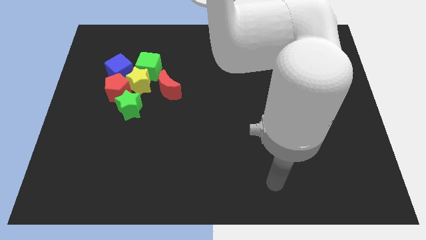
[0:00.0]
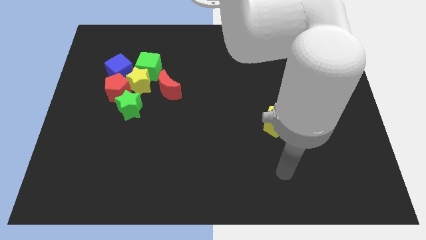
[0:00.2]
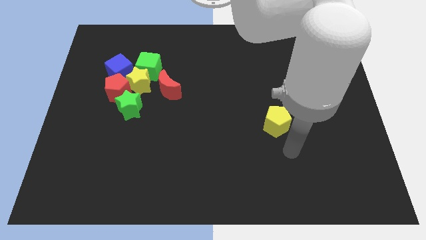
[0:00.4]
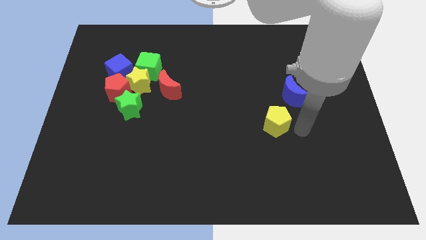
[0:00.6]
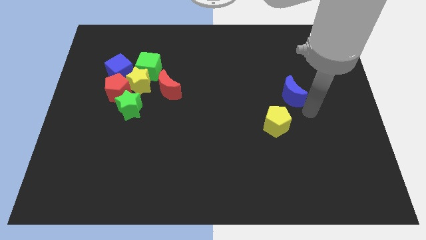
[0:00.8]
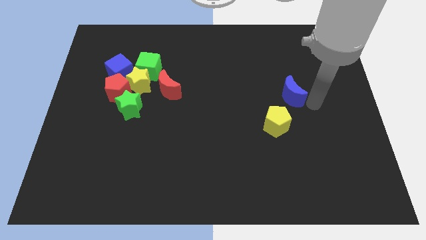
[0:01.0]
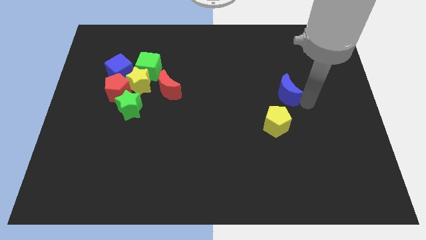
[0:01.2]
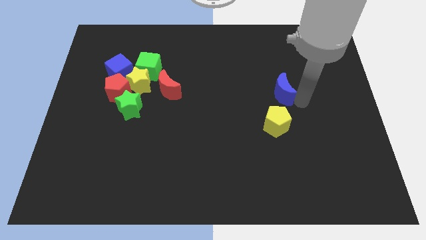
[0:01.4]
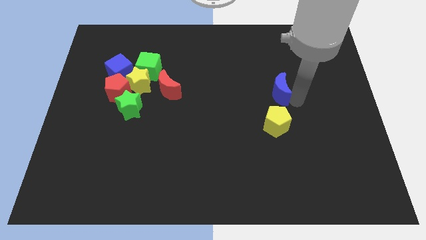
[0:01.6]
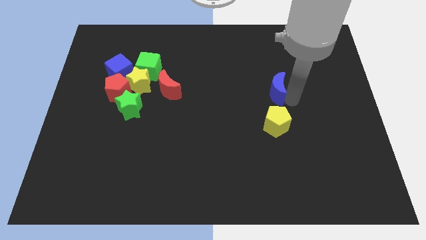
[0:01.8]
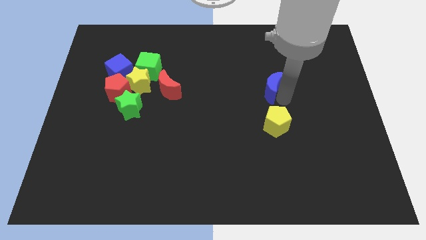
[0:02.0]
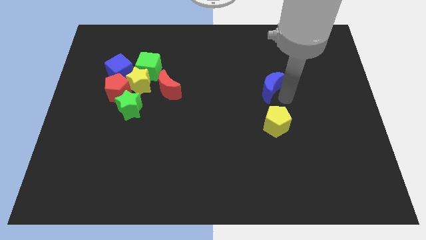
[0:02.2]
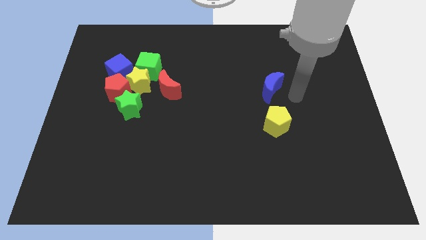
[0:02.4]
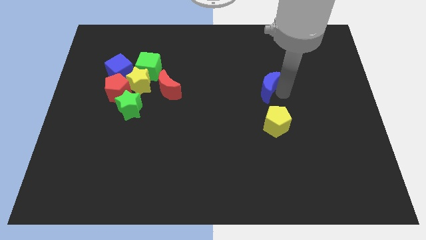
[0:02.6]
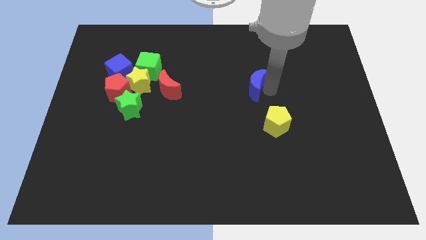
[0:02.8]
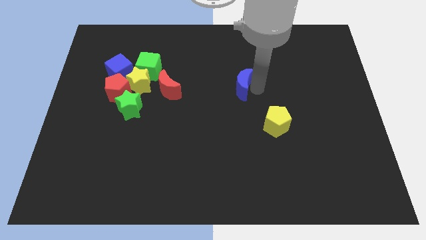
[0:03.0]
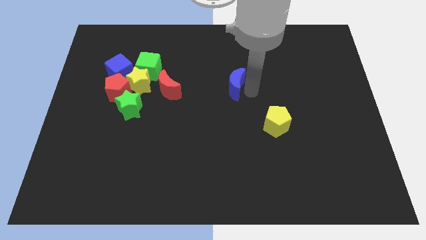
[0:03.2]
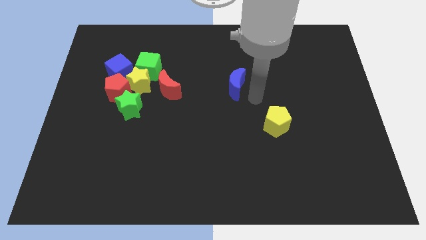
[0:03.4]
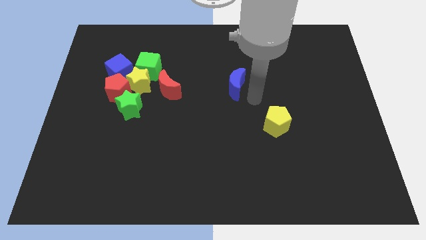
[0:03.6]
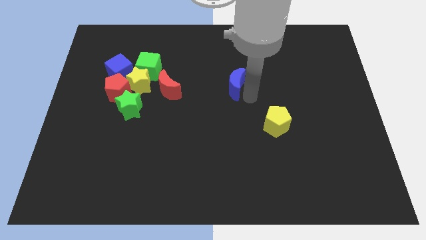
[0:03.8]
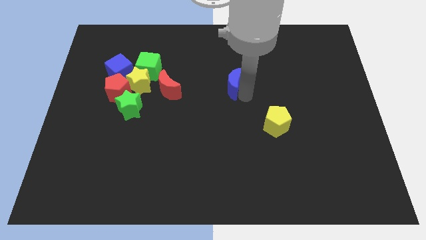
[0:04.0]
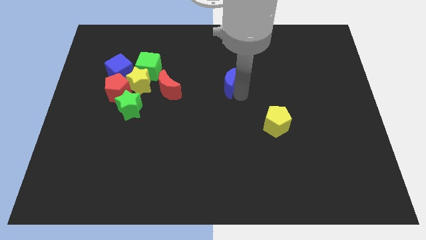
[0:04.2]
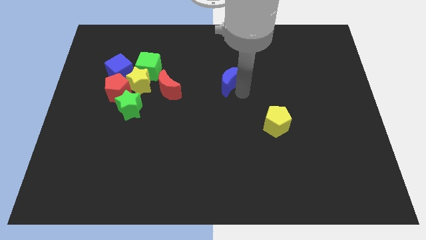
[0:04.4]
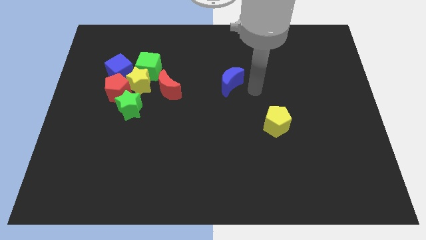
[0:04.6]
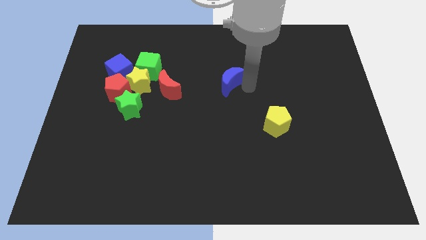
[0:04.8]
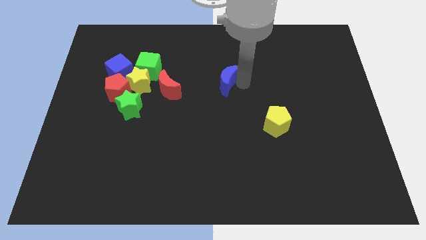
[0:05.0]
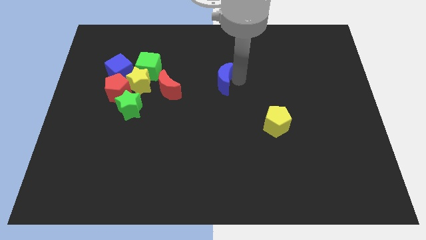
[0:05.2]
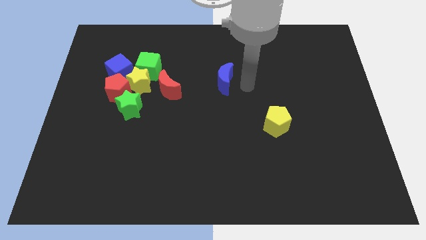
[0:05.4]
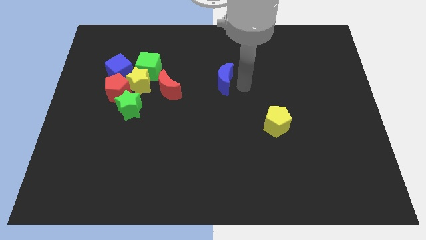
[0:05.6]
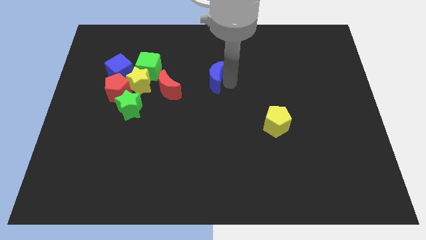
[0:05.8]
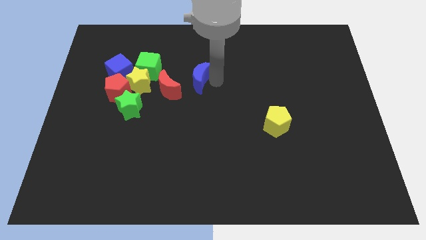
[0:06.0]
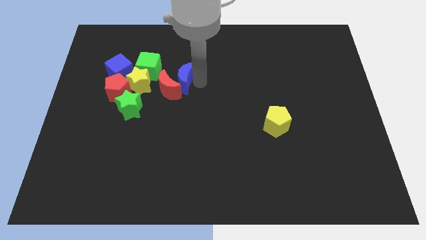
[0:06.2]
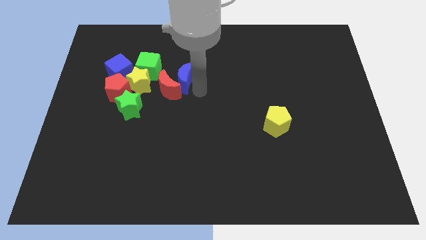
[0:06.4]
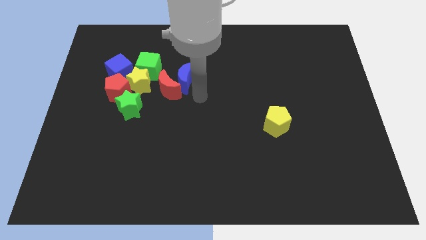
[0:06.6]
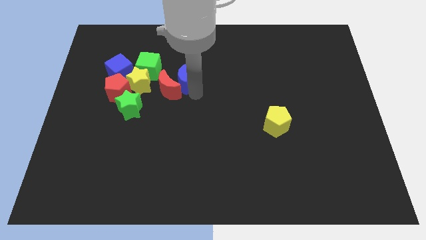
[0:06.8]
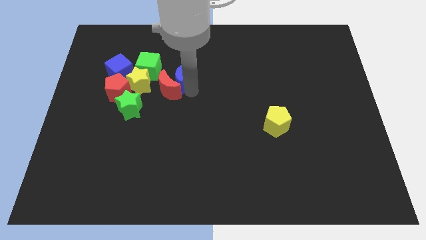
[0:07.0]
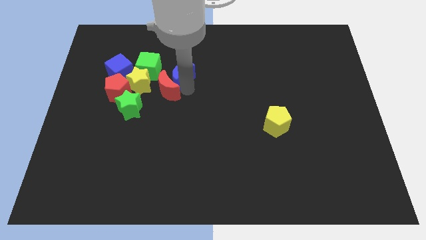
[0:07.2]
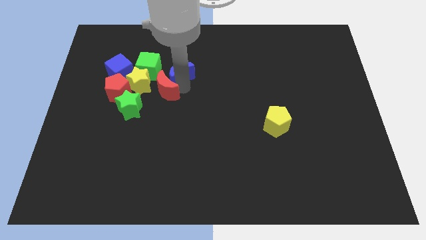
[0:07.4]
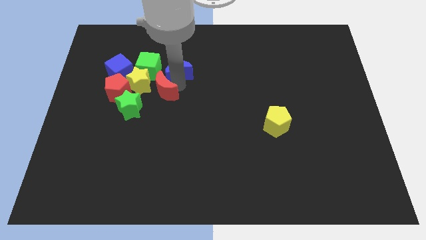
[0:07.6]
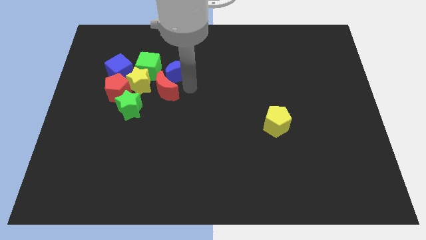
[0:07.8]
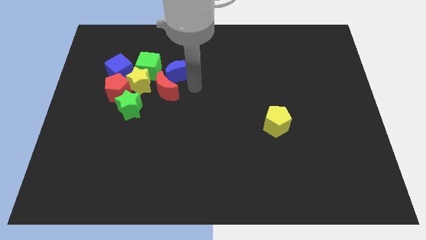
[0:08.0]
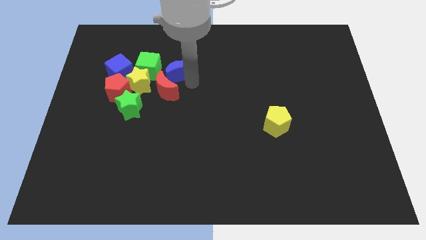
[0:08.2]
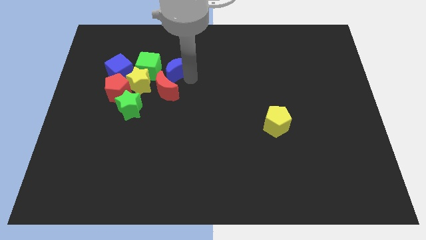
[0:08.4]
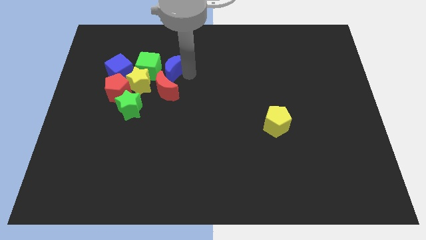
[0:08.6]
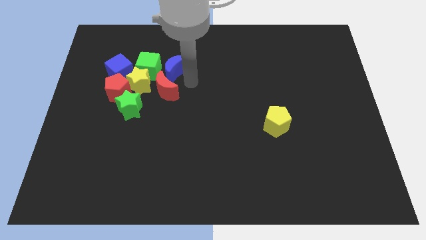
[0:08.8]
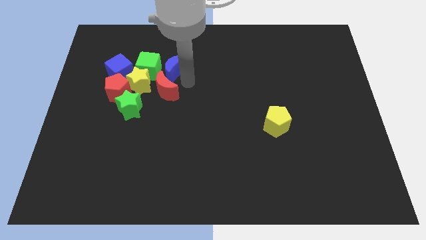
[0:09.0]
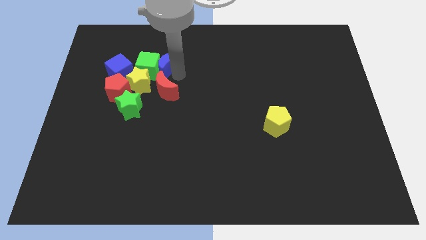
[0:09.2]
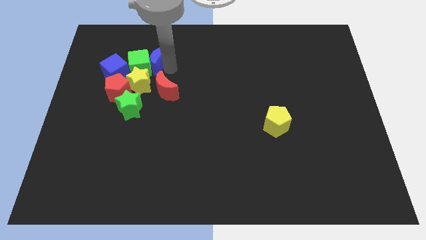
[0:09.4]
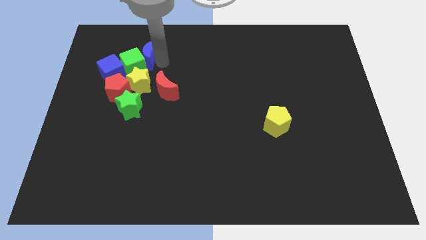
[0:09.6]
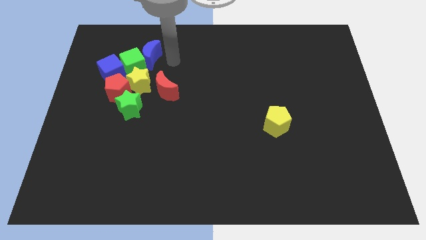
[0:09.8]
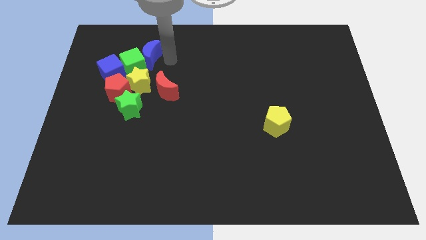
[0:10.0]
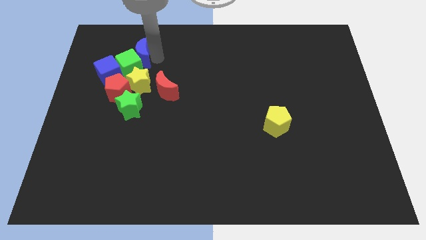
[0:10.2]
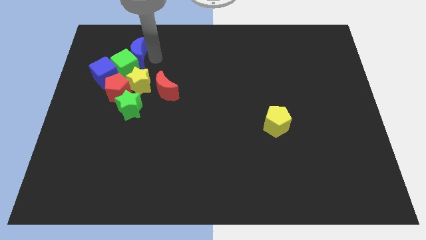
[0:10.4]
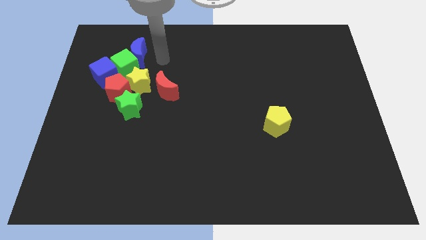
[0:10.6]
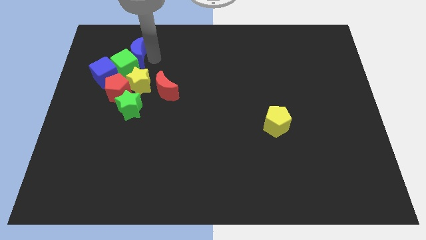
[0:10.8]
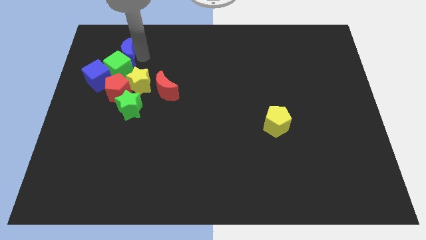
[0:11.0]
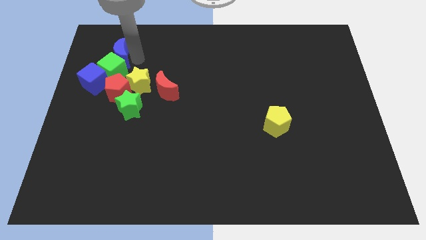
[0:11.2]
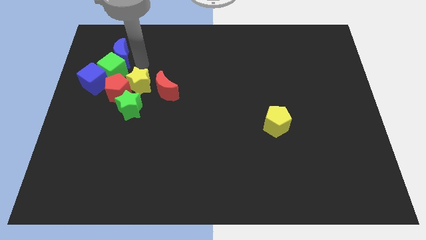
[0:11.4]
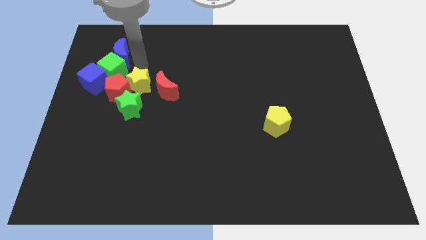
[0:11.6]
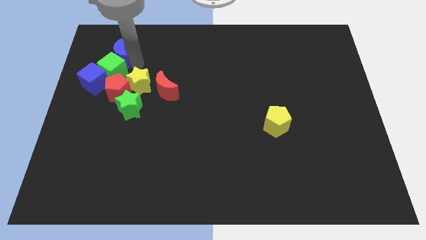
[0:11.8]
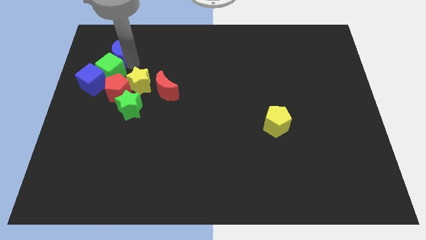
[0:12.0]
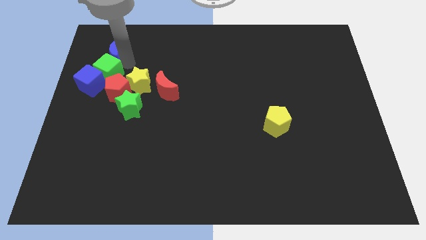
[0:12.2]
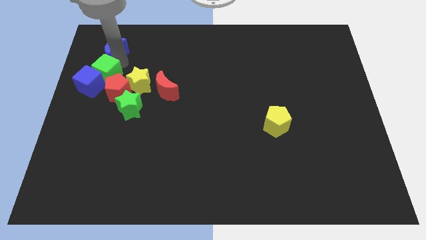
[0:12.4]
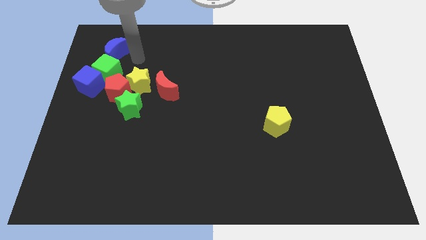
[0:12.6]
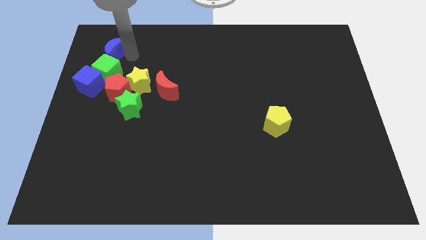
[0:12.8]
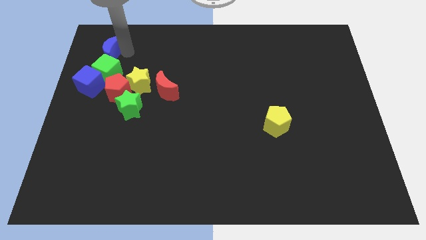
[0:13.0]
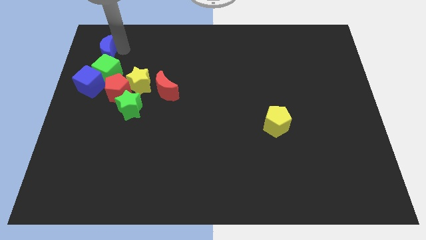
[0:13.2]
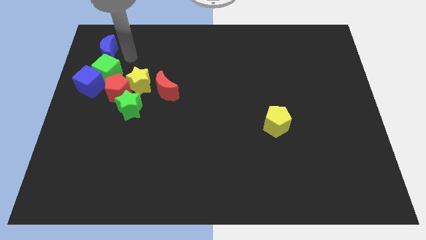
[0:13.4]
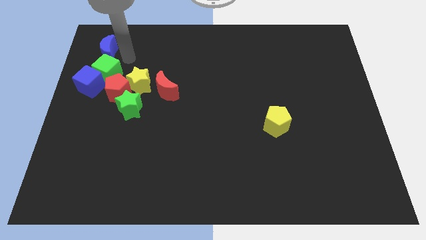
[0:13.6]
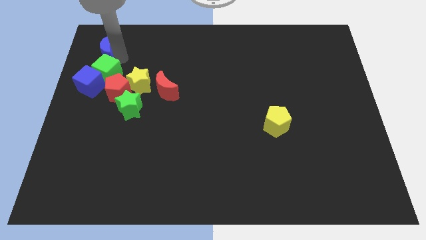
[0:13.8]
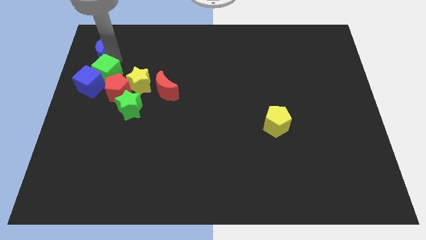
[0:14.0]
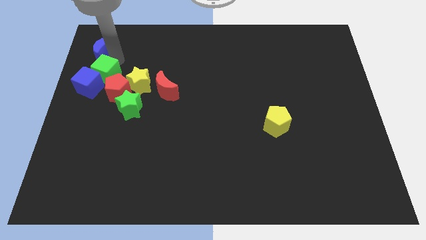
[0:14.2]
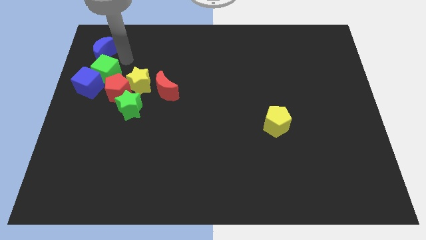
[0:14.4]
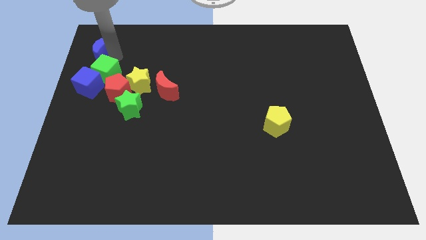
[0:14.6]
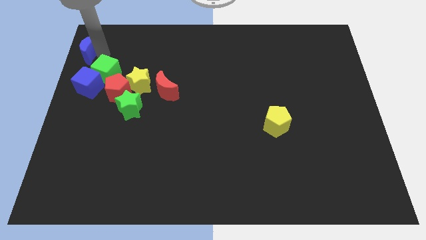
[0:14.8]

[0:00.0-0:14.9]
move the blue moon to the upper left corner
